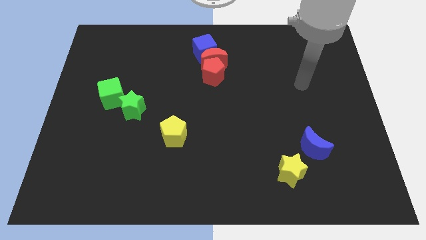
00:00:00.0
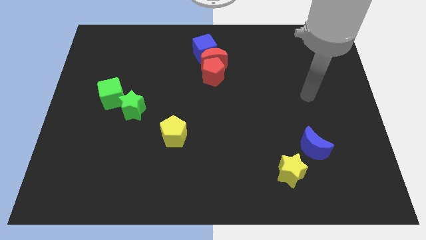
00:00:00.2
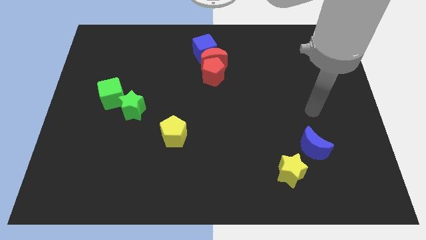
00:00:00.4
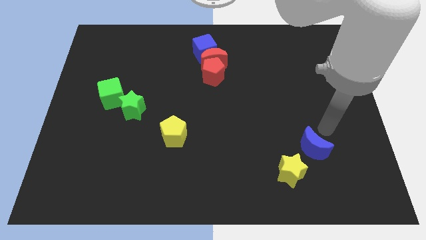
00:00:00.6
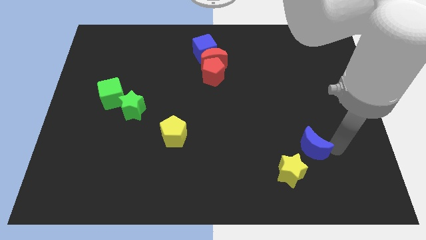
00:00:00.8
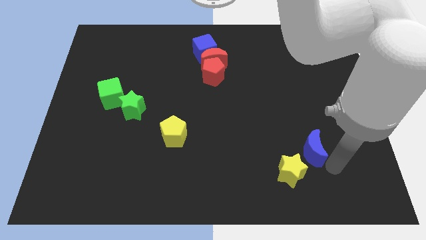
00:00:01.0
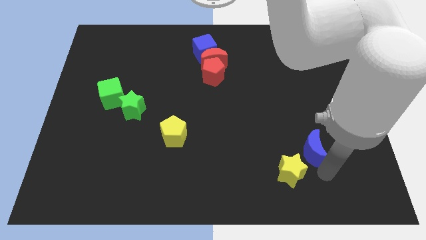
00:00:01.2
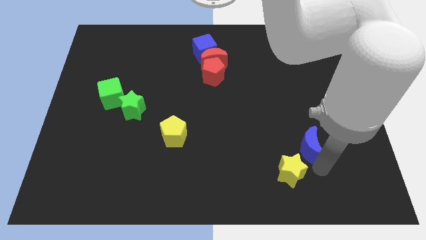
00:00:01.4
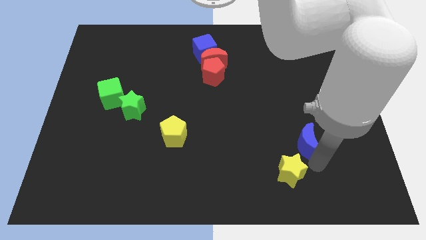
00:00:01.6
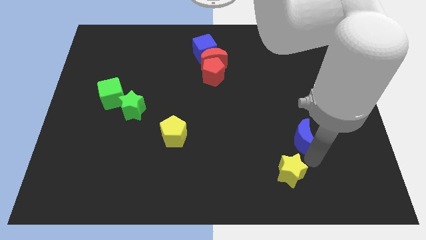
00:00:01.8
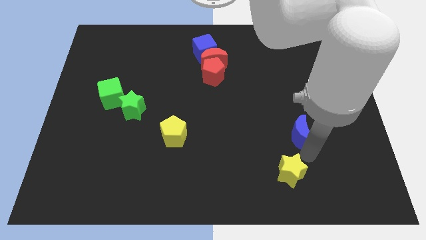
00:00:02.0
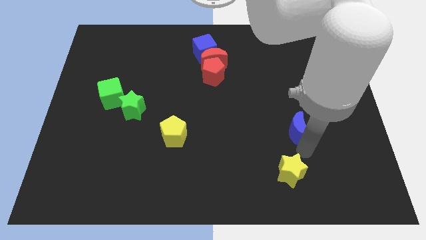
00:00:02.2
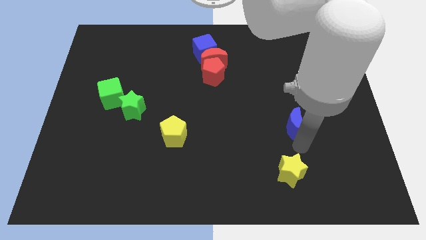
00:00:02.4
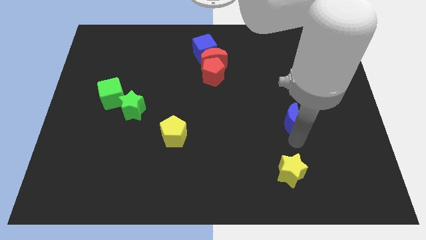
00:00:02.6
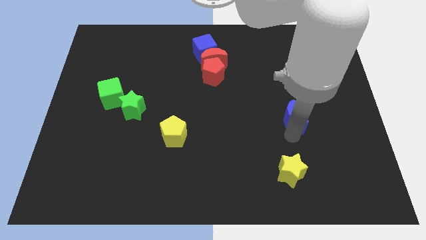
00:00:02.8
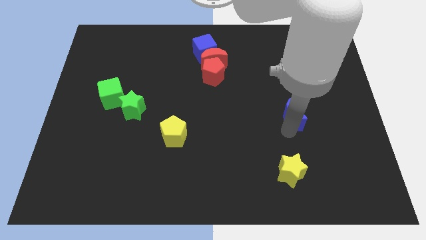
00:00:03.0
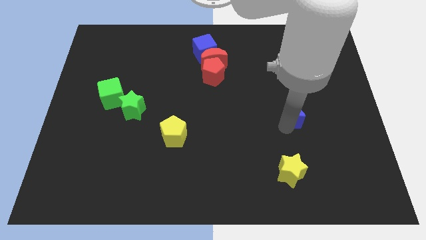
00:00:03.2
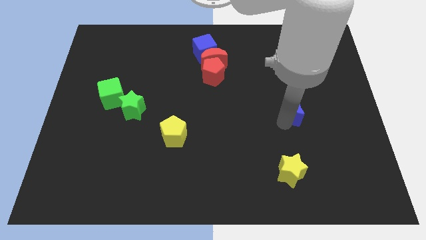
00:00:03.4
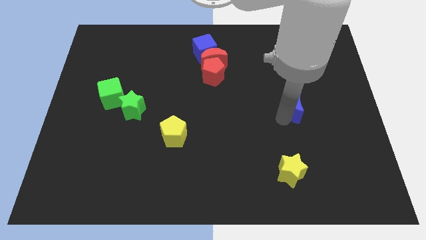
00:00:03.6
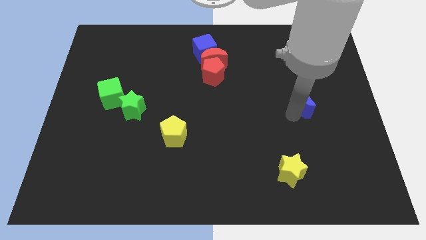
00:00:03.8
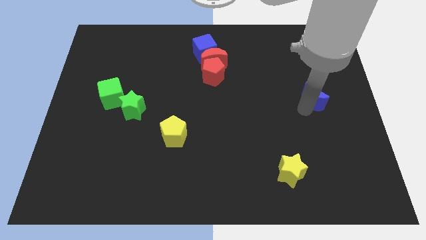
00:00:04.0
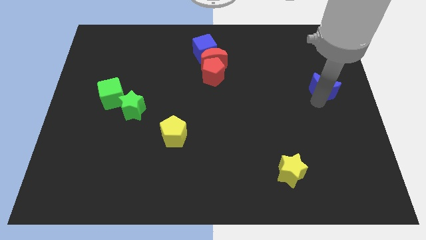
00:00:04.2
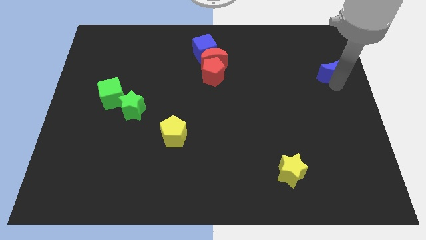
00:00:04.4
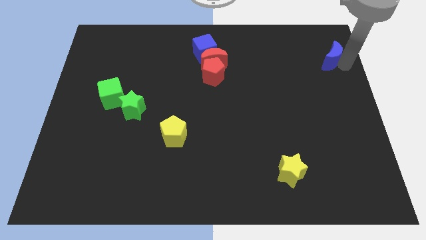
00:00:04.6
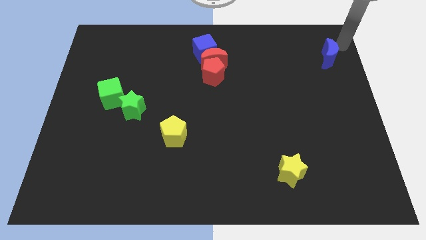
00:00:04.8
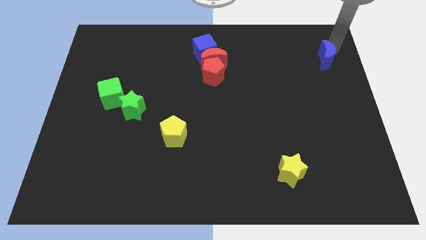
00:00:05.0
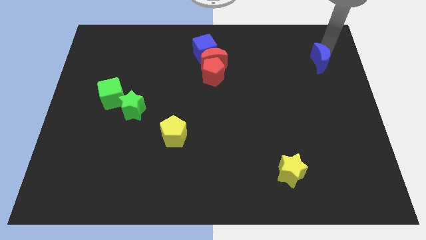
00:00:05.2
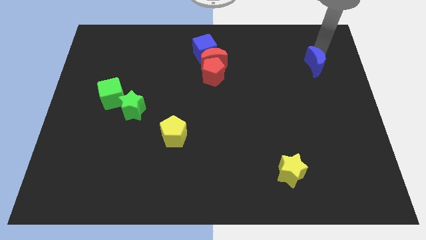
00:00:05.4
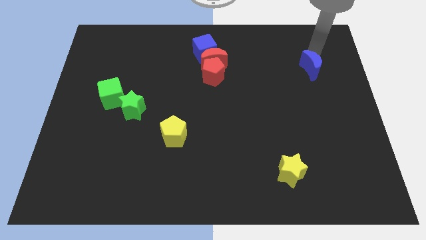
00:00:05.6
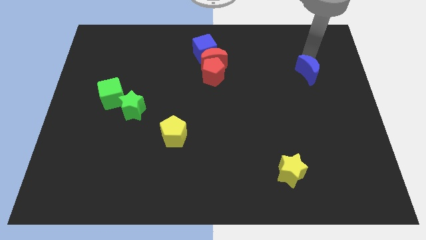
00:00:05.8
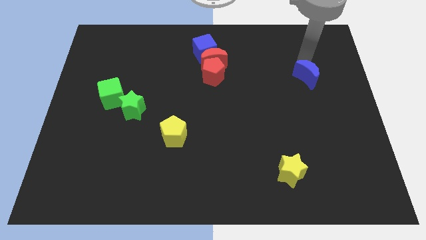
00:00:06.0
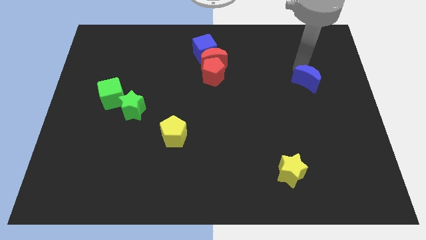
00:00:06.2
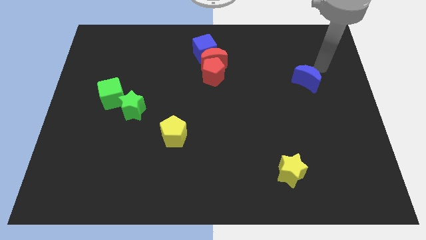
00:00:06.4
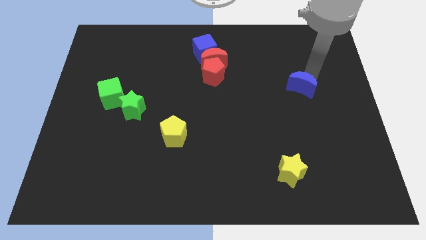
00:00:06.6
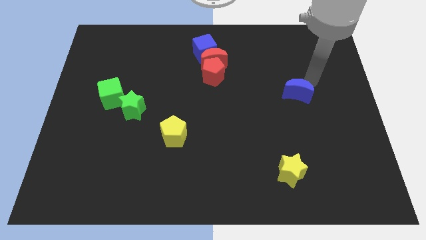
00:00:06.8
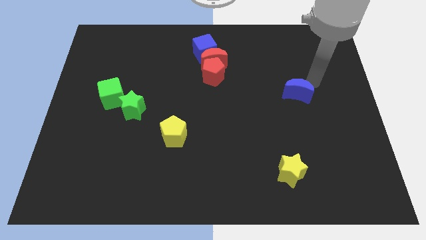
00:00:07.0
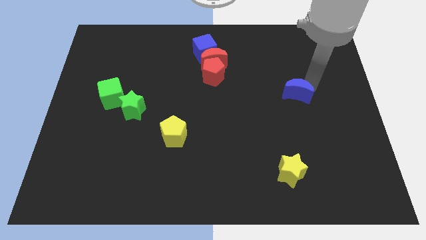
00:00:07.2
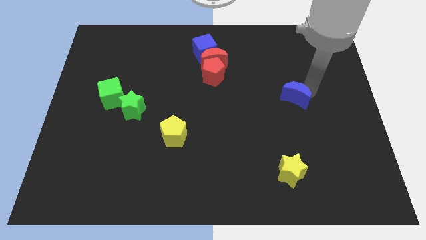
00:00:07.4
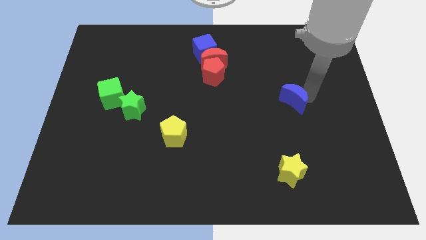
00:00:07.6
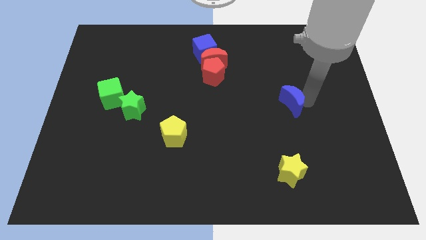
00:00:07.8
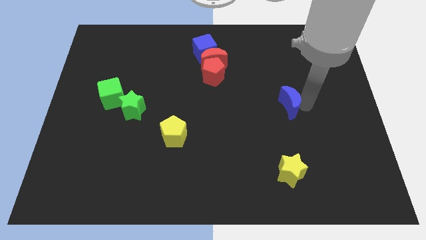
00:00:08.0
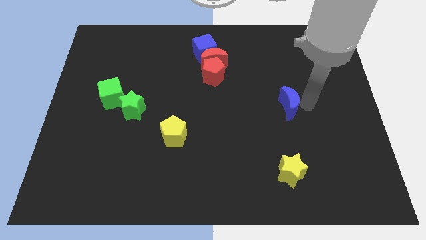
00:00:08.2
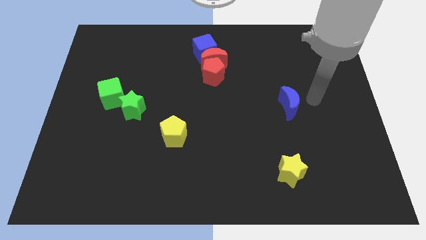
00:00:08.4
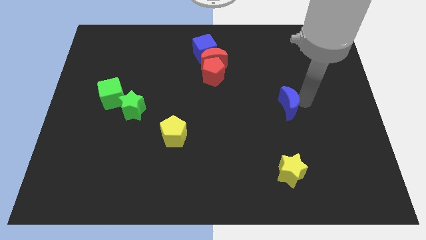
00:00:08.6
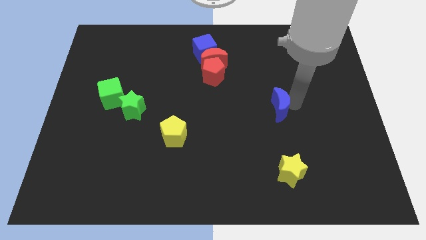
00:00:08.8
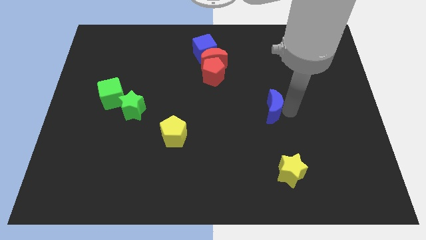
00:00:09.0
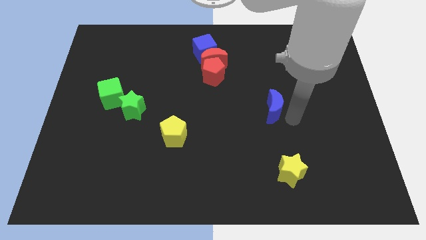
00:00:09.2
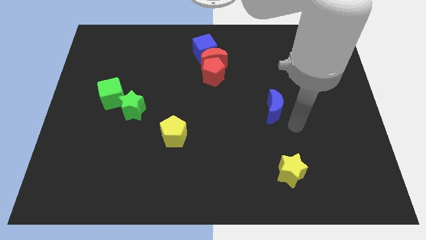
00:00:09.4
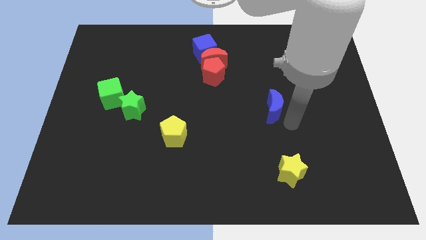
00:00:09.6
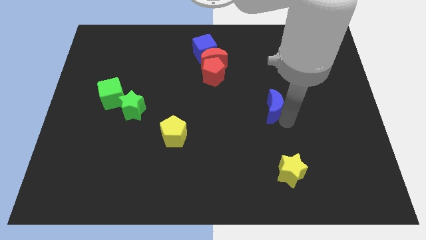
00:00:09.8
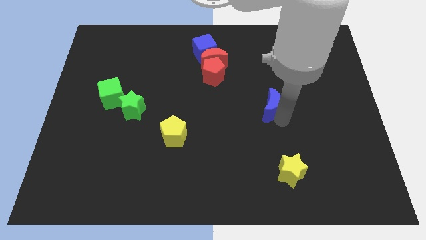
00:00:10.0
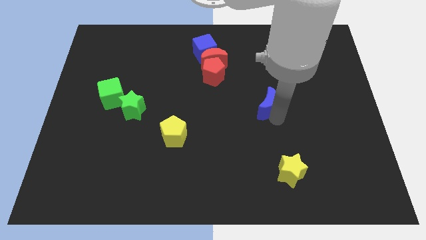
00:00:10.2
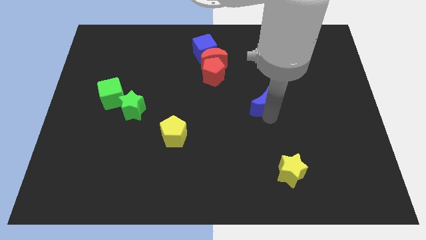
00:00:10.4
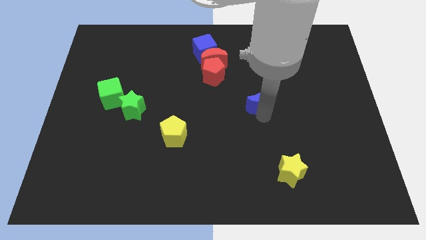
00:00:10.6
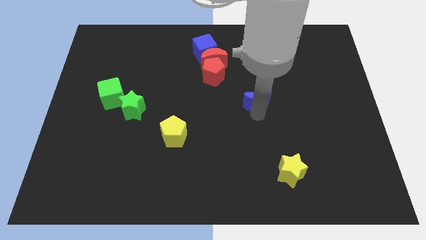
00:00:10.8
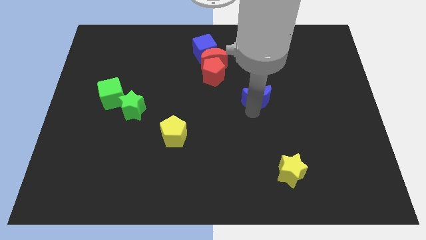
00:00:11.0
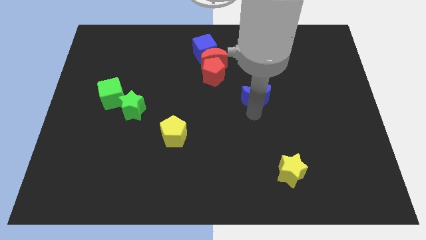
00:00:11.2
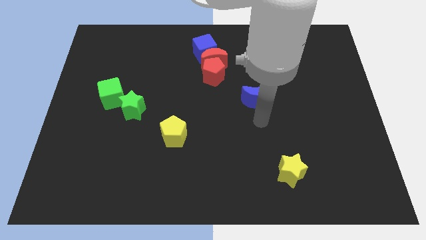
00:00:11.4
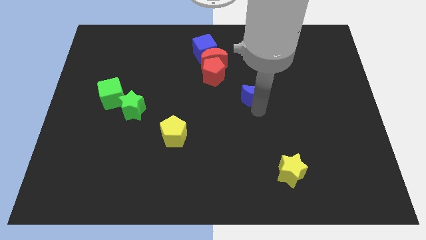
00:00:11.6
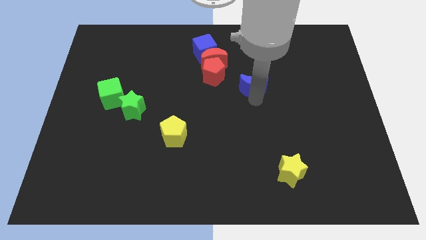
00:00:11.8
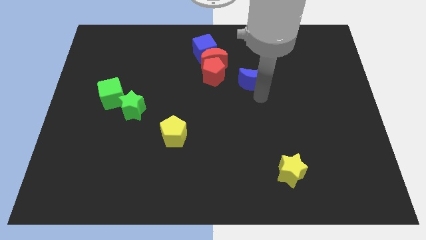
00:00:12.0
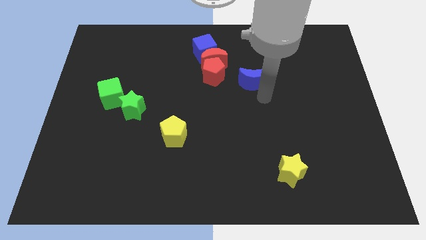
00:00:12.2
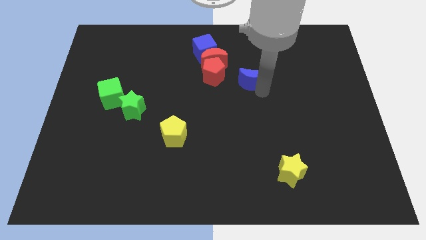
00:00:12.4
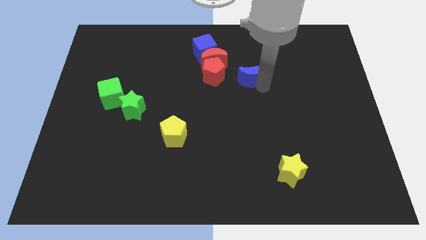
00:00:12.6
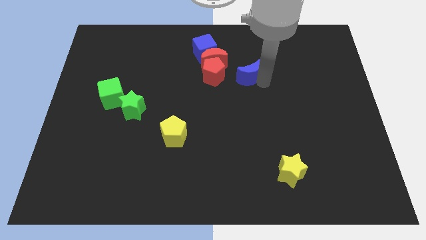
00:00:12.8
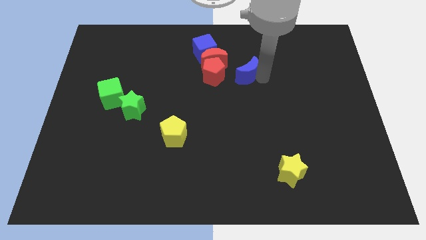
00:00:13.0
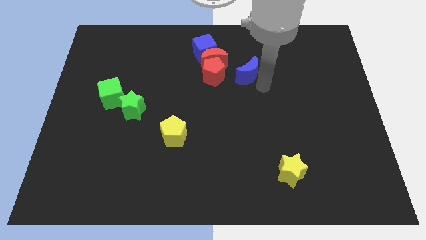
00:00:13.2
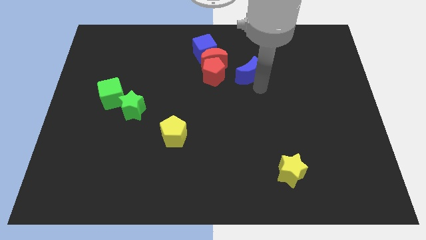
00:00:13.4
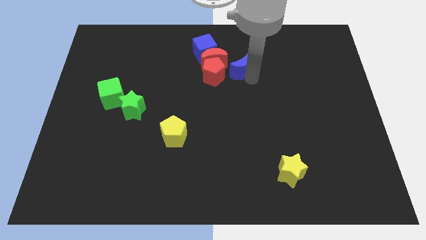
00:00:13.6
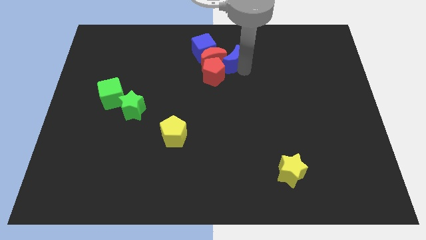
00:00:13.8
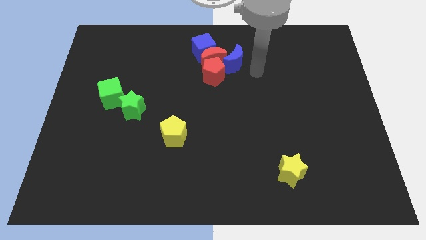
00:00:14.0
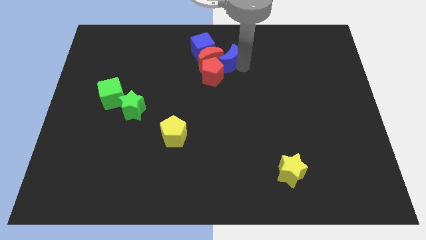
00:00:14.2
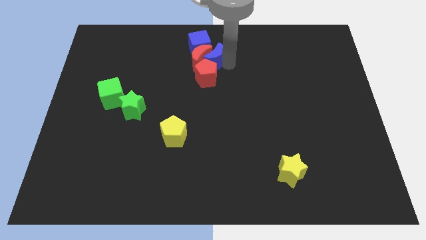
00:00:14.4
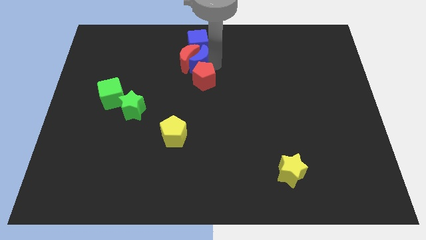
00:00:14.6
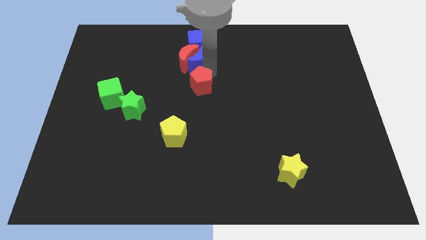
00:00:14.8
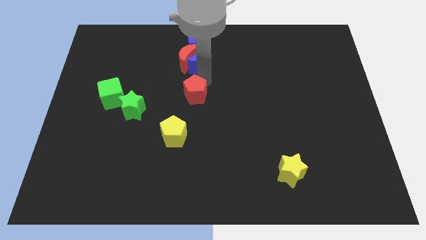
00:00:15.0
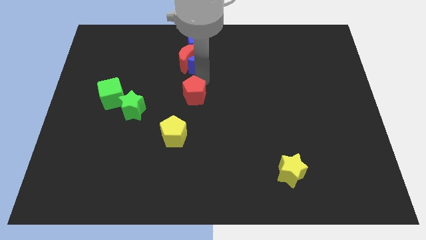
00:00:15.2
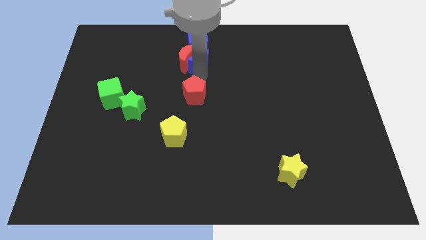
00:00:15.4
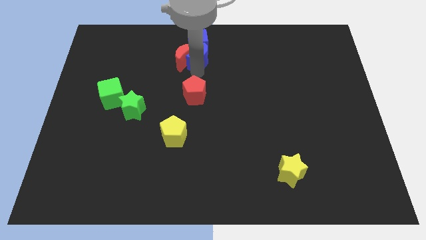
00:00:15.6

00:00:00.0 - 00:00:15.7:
put the blue moon to the blue cube
